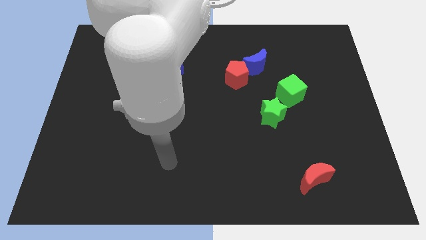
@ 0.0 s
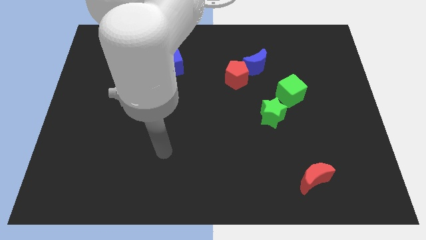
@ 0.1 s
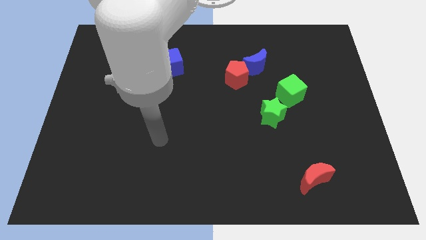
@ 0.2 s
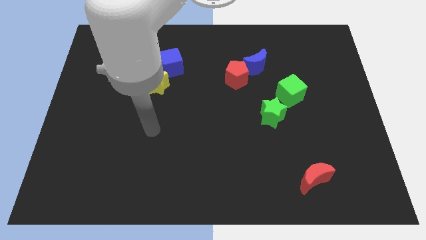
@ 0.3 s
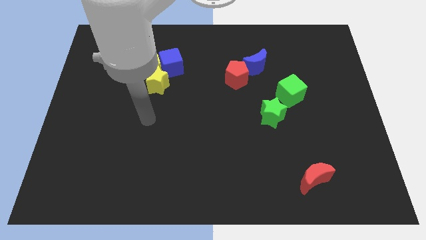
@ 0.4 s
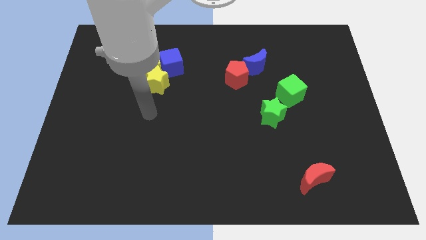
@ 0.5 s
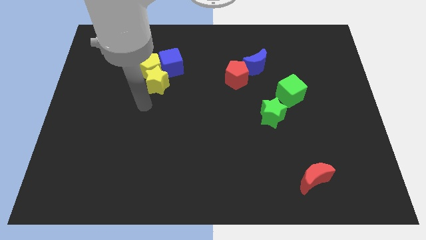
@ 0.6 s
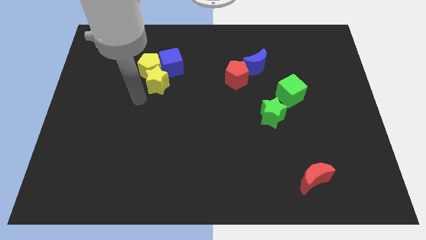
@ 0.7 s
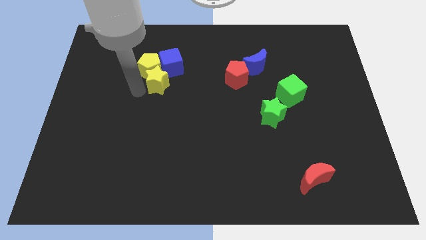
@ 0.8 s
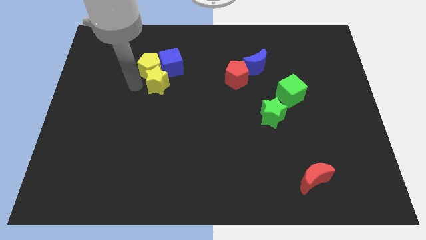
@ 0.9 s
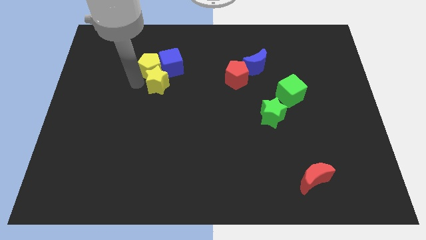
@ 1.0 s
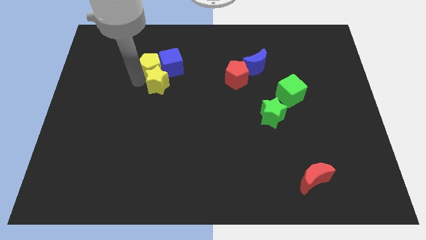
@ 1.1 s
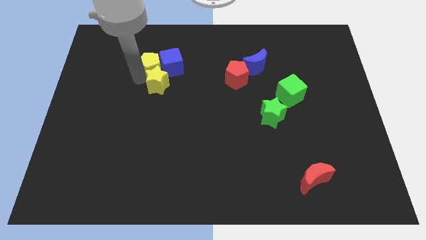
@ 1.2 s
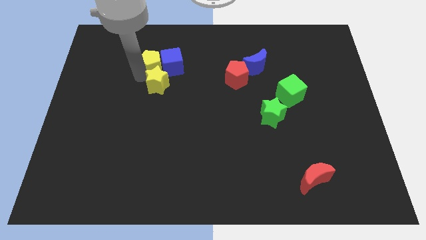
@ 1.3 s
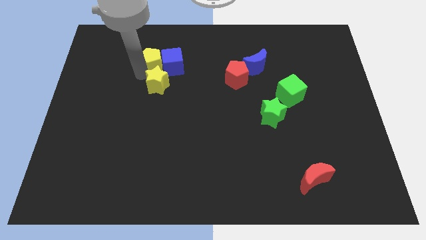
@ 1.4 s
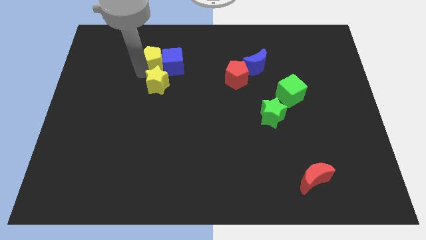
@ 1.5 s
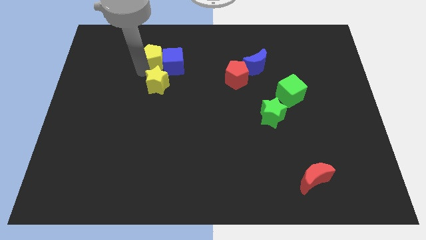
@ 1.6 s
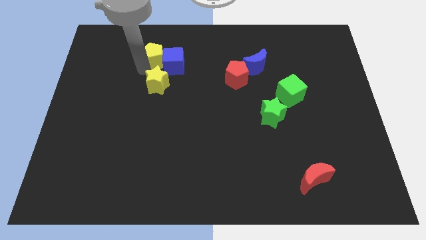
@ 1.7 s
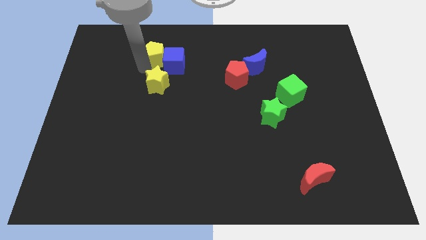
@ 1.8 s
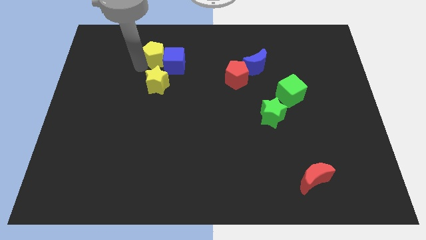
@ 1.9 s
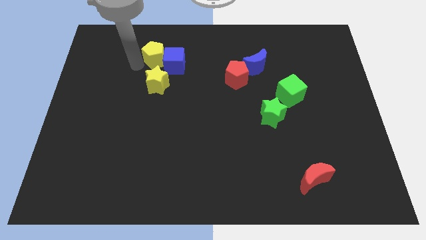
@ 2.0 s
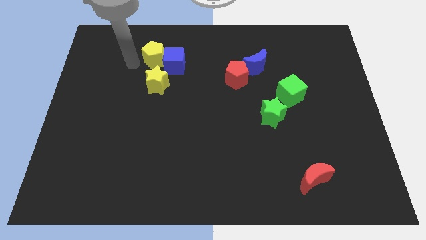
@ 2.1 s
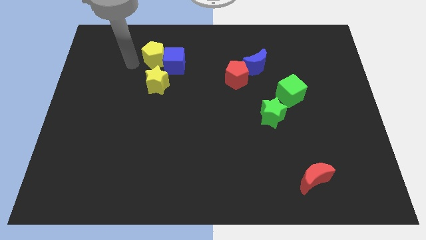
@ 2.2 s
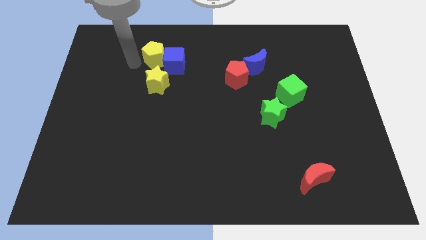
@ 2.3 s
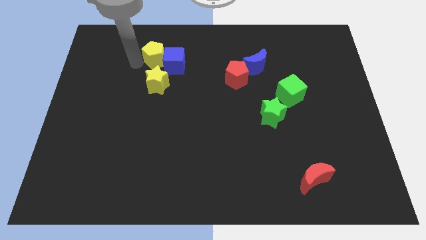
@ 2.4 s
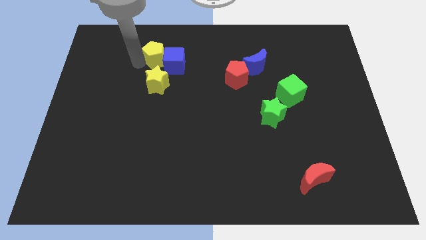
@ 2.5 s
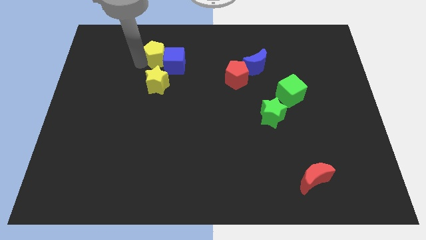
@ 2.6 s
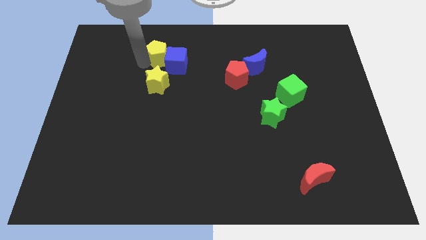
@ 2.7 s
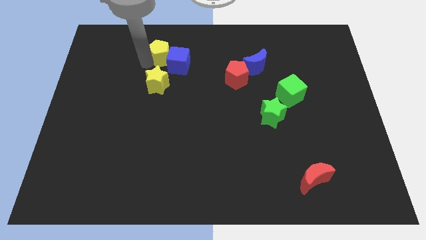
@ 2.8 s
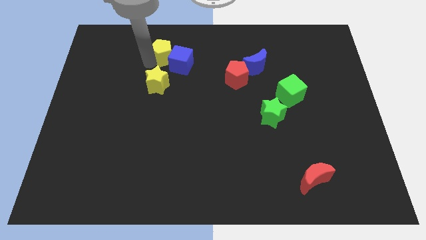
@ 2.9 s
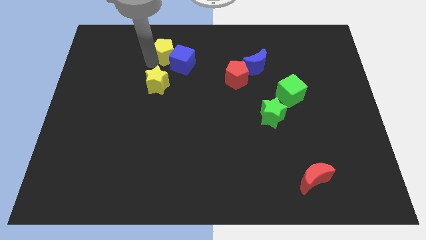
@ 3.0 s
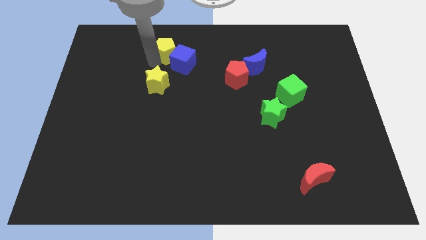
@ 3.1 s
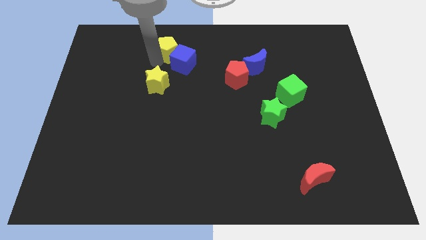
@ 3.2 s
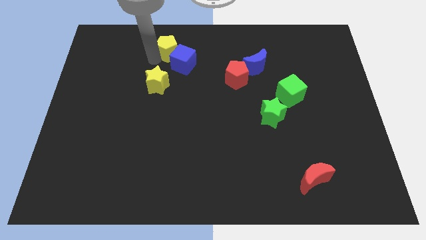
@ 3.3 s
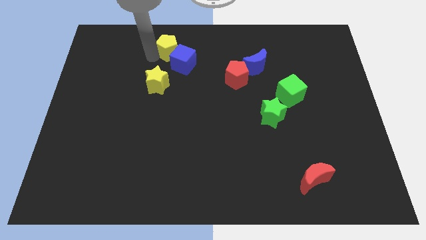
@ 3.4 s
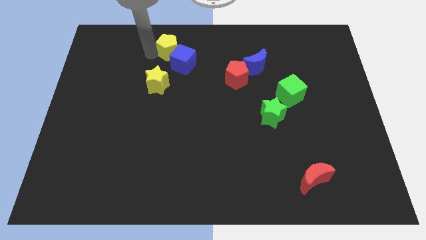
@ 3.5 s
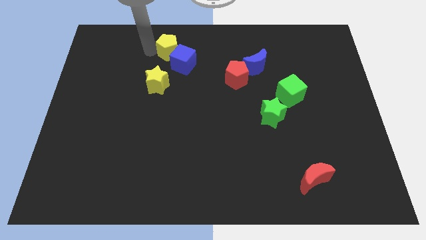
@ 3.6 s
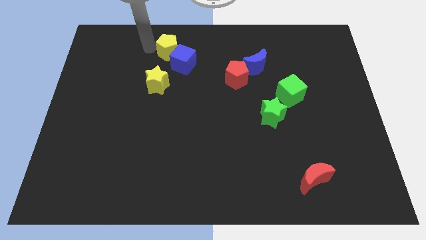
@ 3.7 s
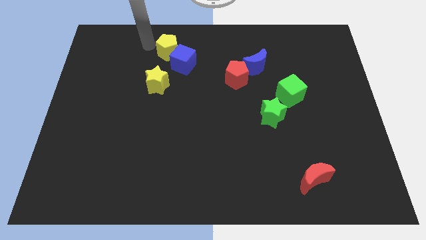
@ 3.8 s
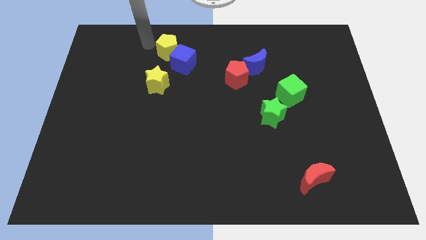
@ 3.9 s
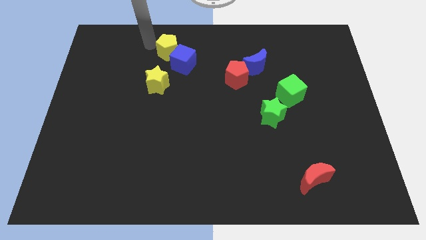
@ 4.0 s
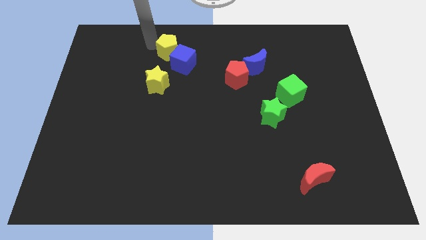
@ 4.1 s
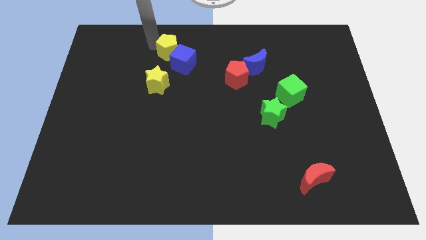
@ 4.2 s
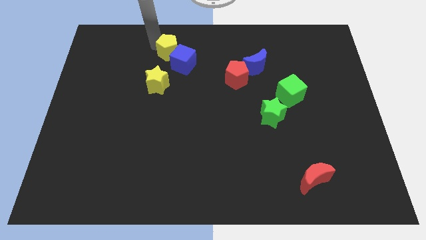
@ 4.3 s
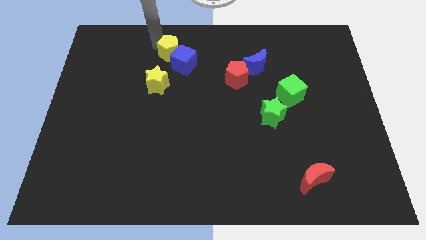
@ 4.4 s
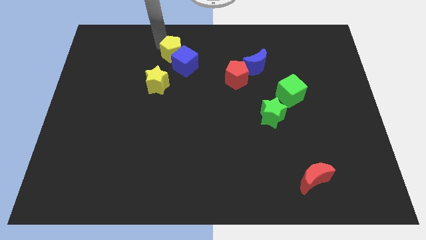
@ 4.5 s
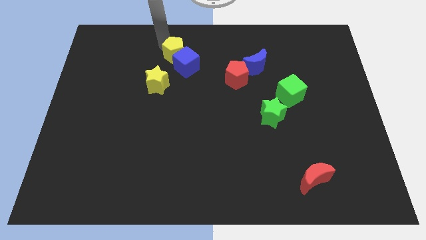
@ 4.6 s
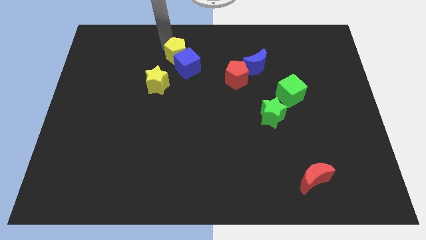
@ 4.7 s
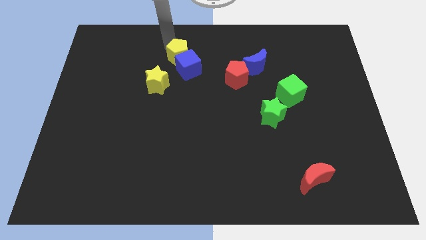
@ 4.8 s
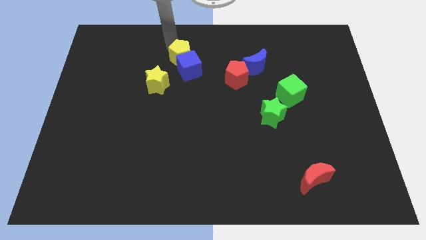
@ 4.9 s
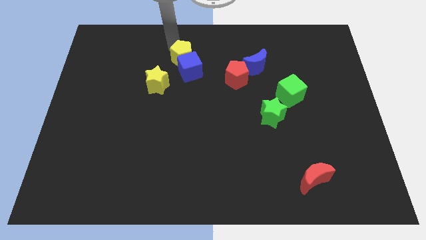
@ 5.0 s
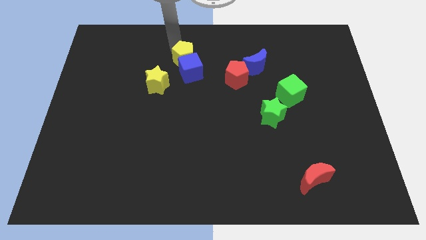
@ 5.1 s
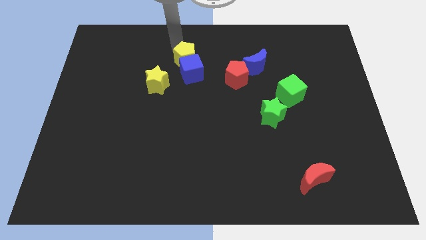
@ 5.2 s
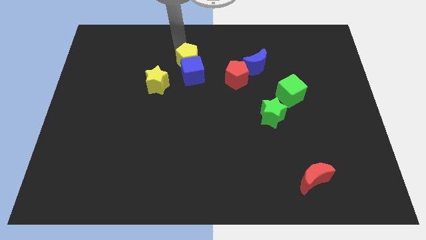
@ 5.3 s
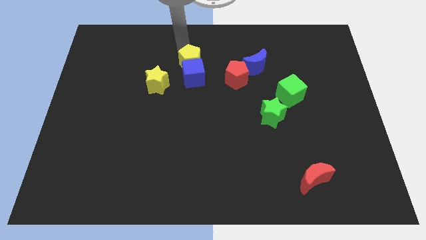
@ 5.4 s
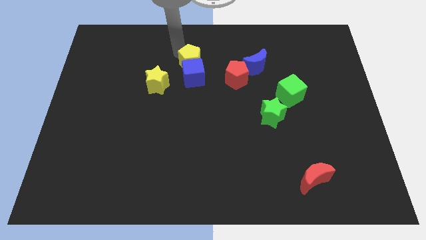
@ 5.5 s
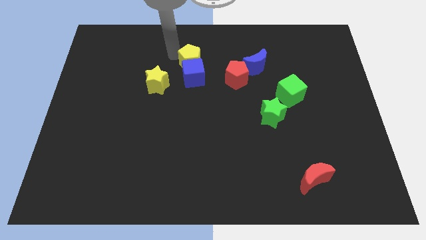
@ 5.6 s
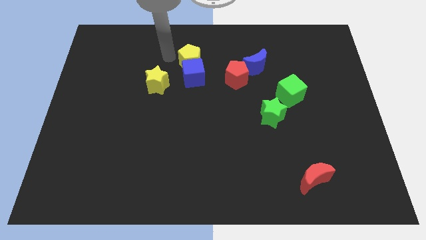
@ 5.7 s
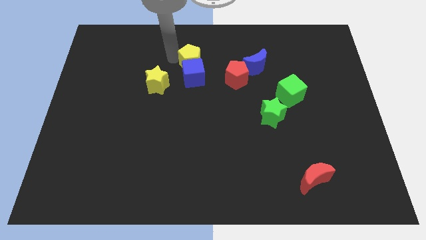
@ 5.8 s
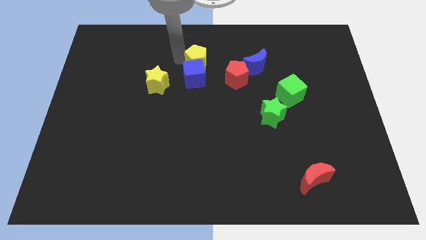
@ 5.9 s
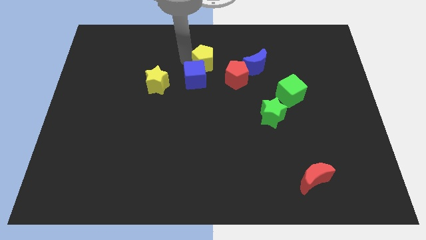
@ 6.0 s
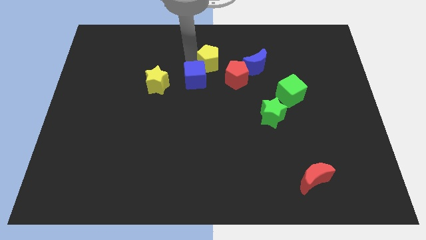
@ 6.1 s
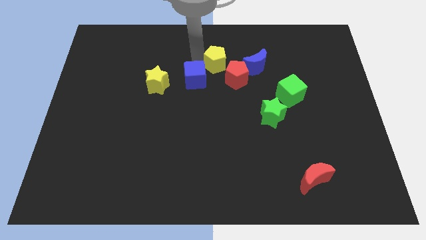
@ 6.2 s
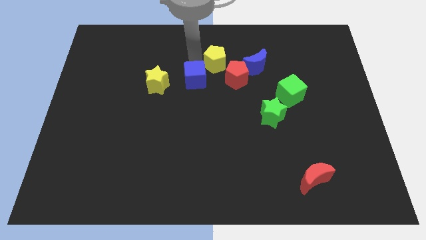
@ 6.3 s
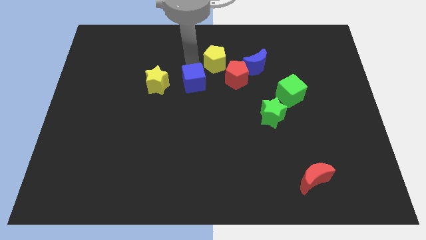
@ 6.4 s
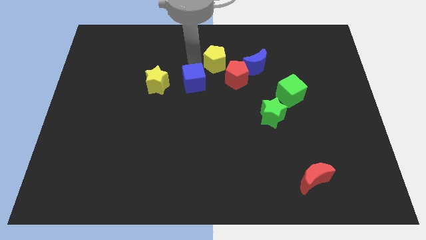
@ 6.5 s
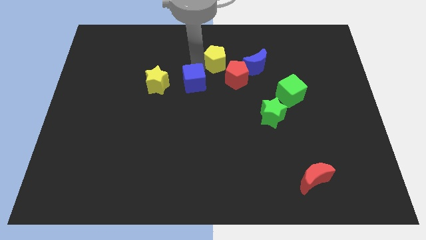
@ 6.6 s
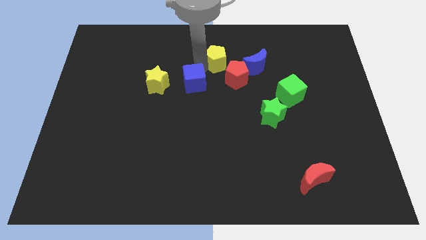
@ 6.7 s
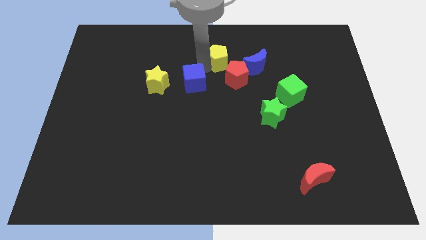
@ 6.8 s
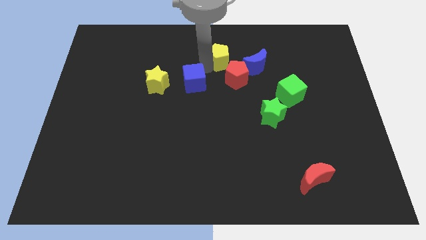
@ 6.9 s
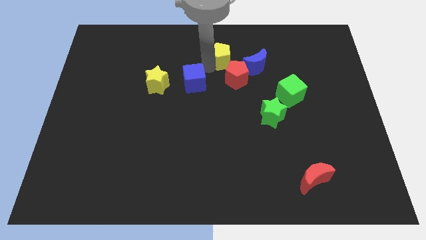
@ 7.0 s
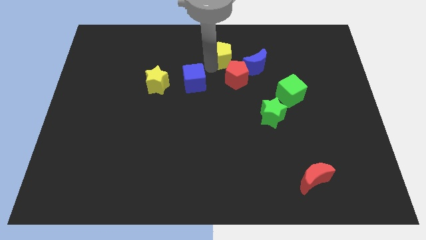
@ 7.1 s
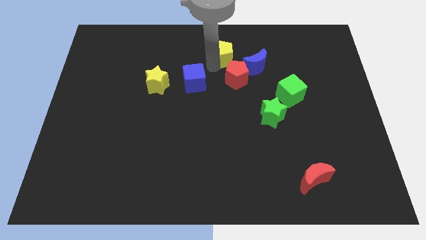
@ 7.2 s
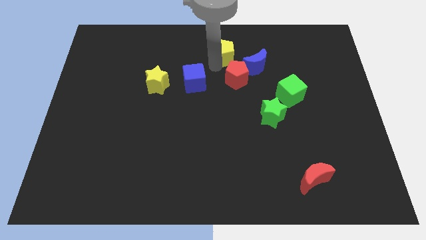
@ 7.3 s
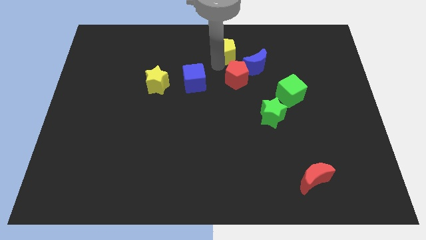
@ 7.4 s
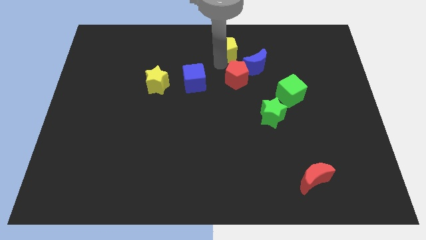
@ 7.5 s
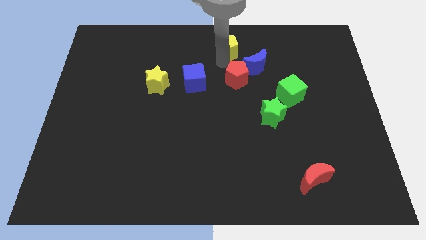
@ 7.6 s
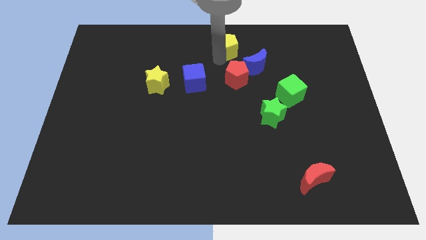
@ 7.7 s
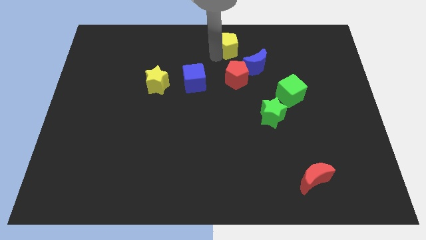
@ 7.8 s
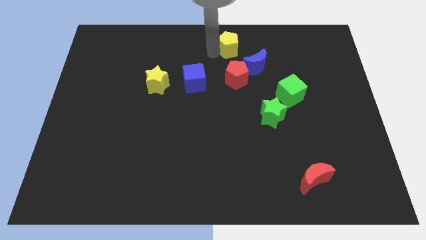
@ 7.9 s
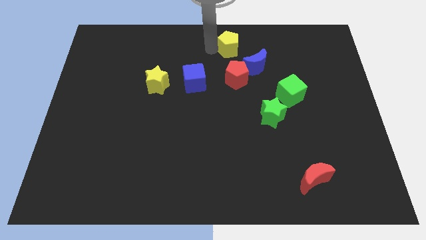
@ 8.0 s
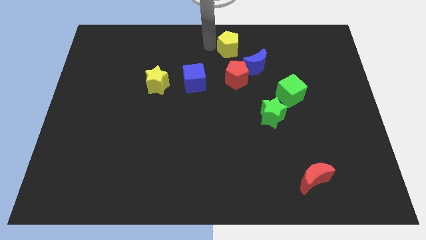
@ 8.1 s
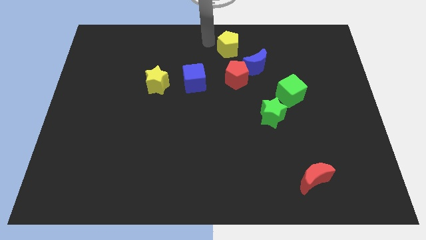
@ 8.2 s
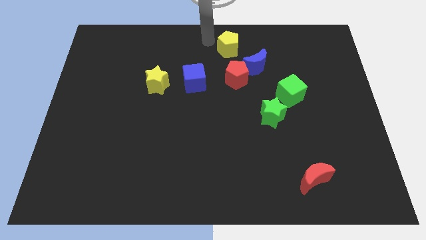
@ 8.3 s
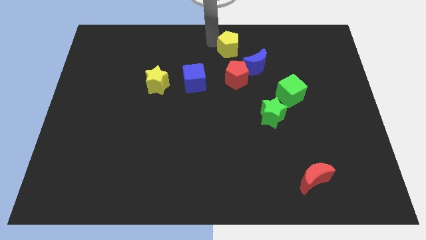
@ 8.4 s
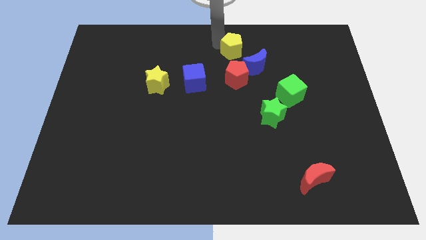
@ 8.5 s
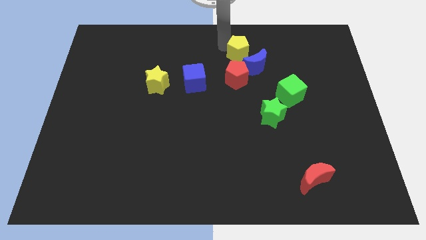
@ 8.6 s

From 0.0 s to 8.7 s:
move the yellow pentagon right
